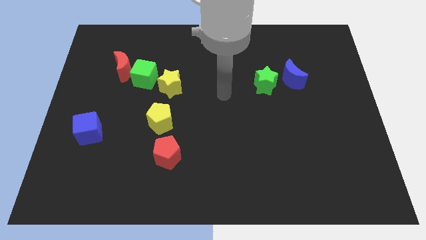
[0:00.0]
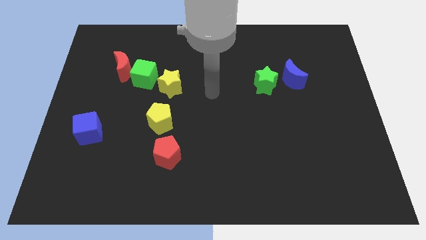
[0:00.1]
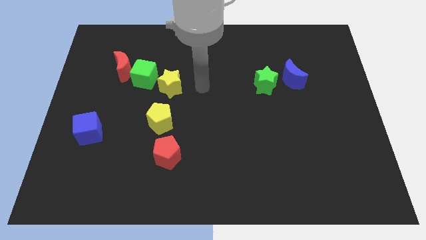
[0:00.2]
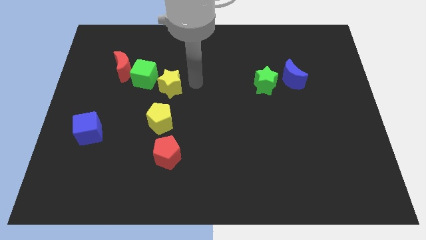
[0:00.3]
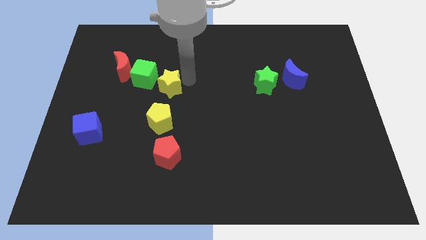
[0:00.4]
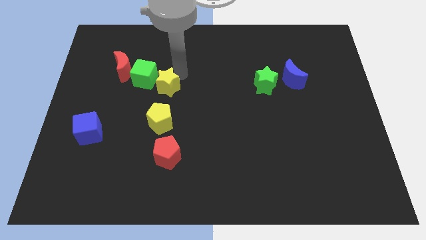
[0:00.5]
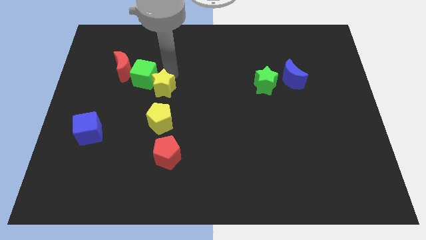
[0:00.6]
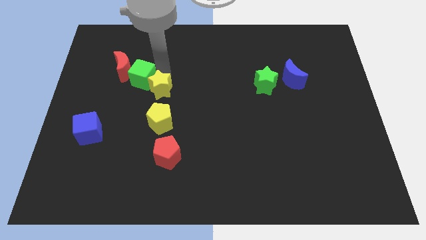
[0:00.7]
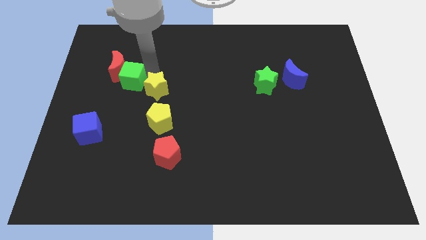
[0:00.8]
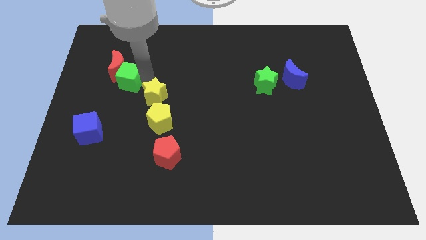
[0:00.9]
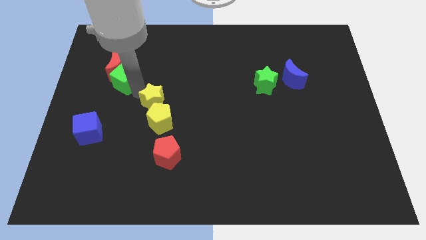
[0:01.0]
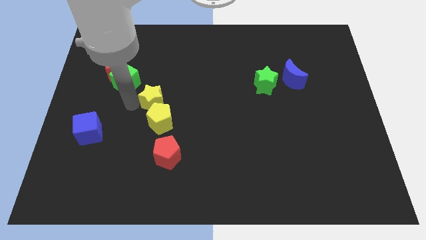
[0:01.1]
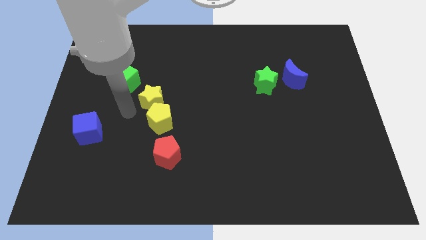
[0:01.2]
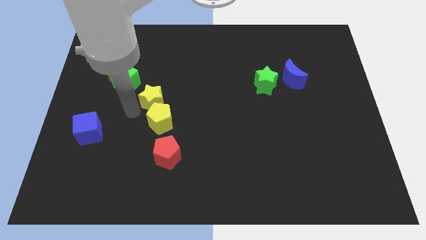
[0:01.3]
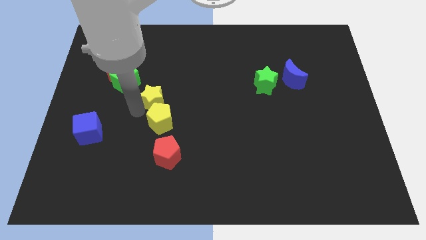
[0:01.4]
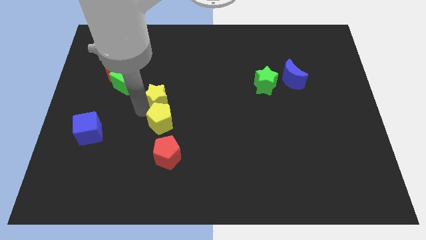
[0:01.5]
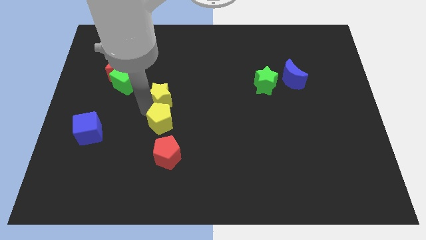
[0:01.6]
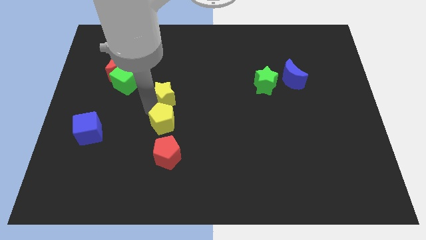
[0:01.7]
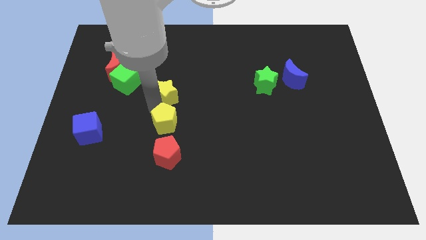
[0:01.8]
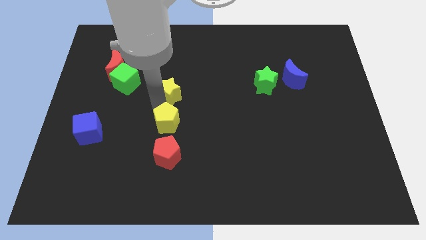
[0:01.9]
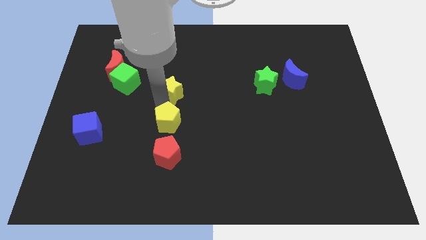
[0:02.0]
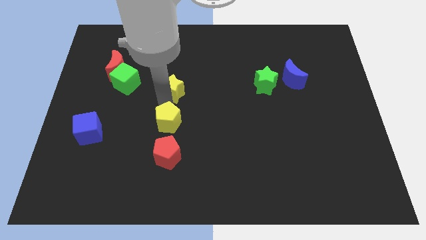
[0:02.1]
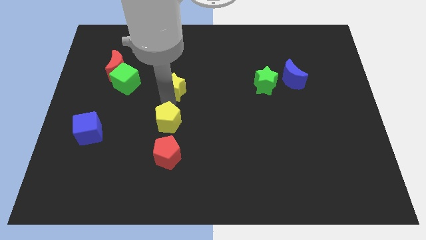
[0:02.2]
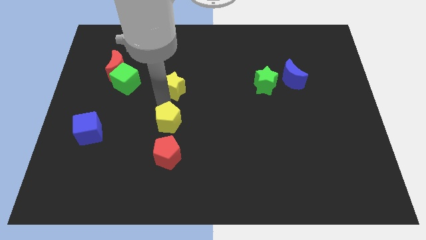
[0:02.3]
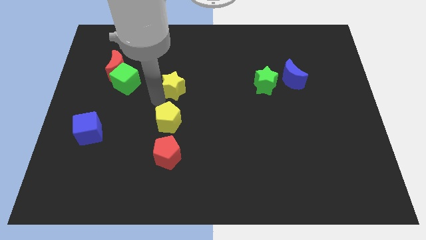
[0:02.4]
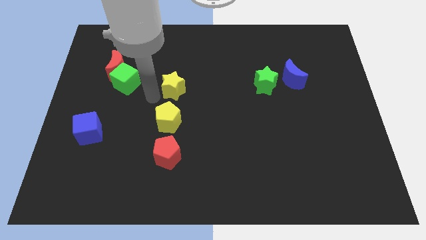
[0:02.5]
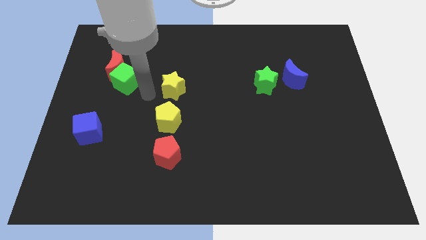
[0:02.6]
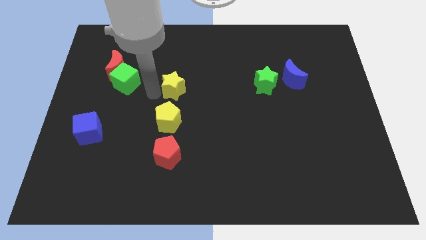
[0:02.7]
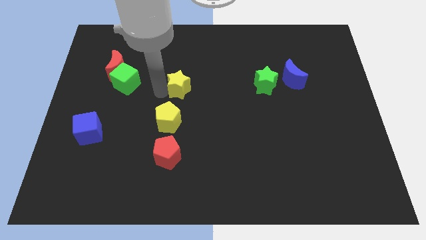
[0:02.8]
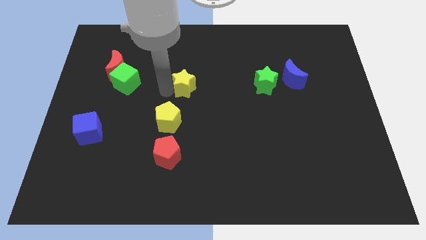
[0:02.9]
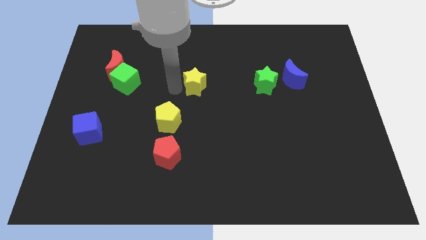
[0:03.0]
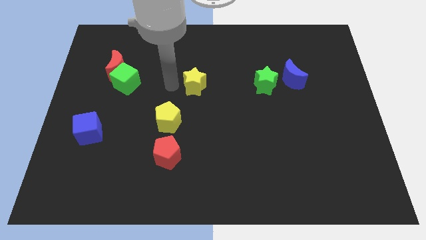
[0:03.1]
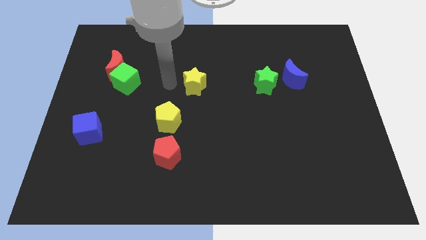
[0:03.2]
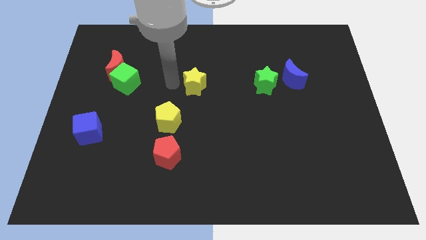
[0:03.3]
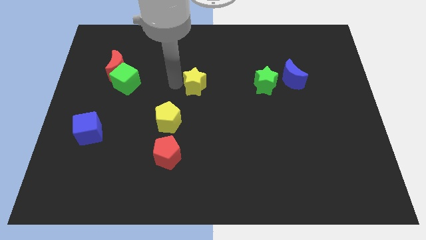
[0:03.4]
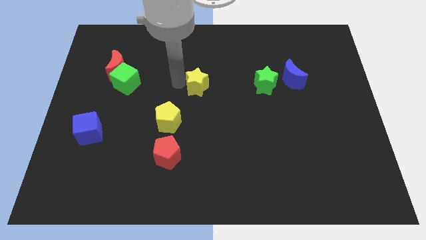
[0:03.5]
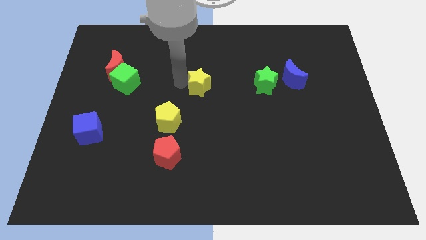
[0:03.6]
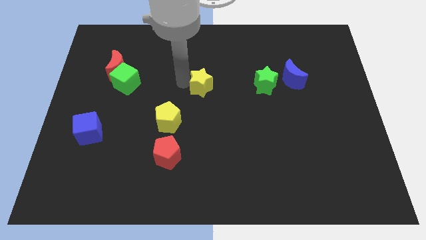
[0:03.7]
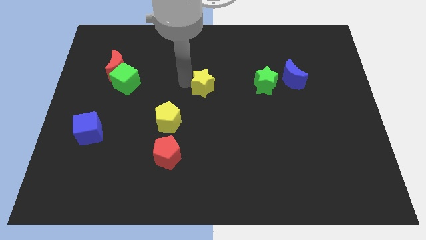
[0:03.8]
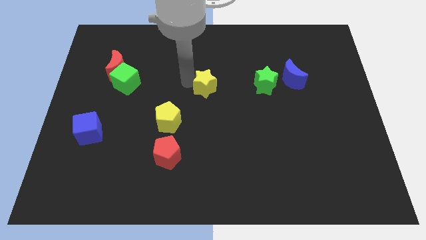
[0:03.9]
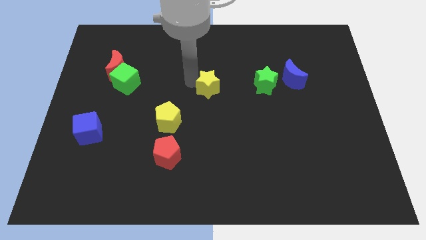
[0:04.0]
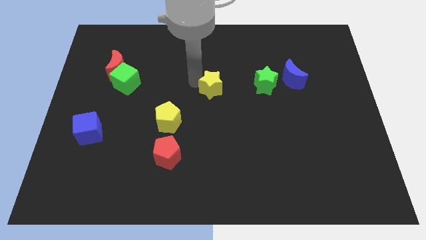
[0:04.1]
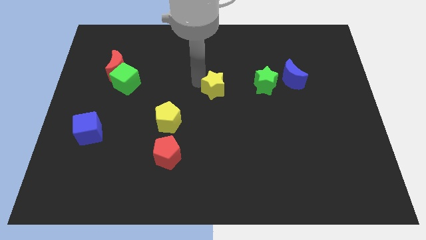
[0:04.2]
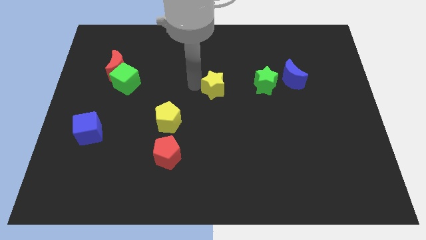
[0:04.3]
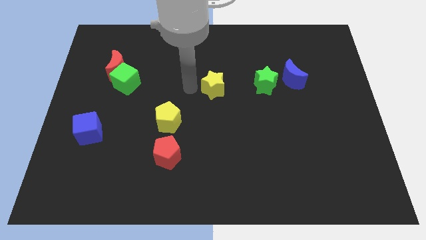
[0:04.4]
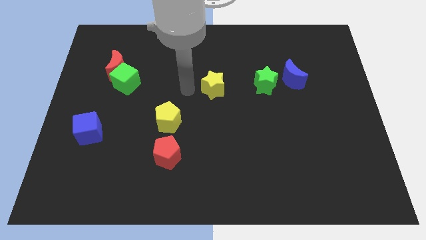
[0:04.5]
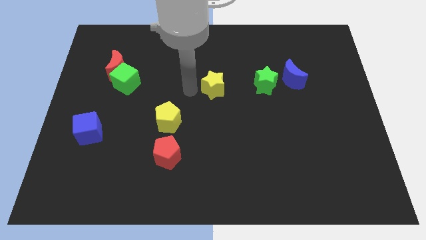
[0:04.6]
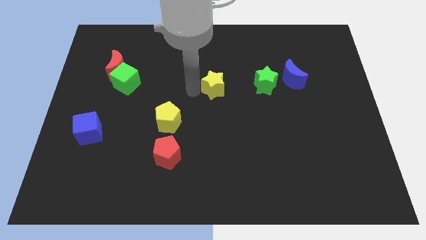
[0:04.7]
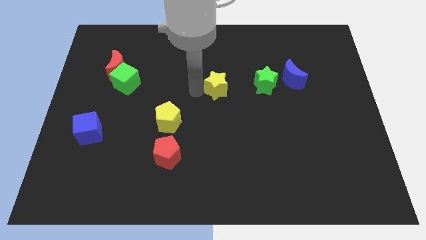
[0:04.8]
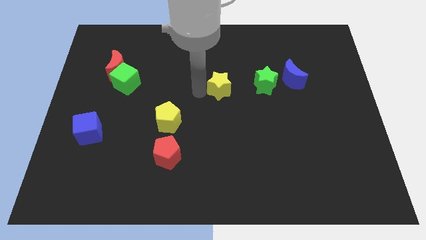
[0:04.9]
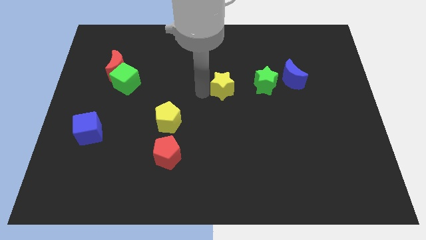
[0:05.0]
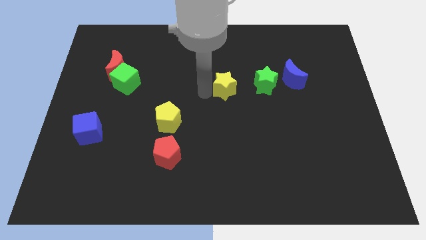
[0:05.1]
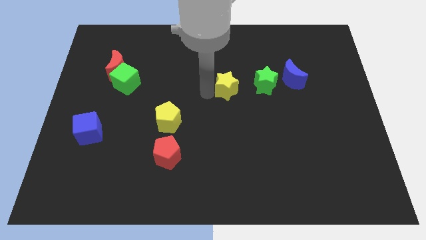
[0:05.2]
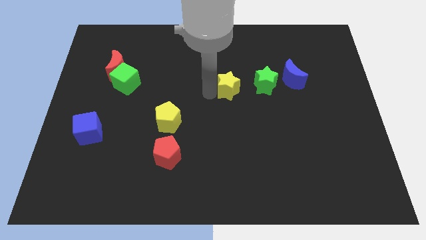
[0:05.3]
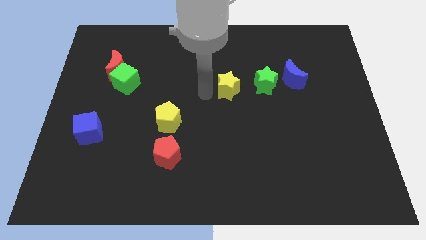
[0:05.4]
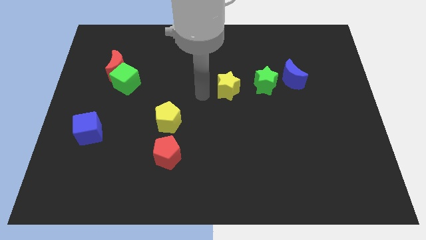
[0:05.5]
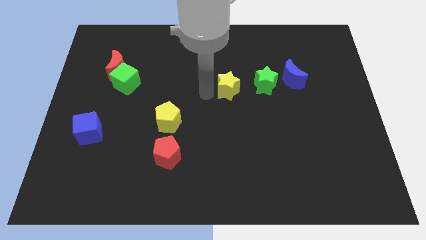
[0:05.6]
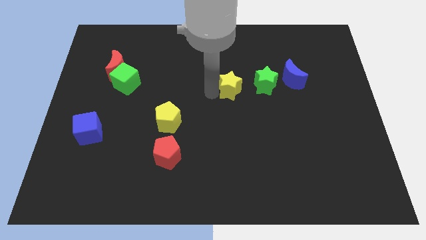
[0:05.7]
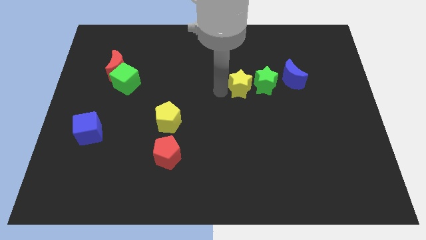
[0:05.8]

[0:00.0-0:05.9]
put the yellow star close to the green star

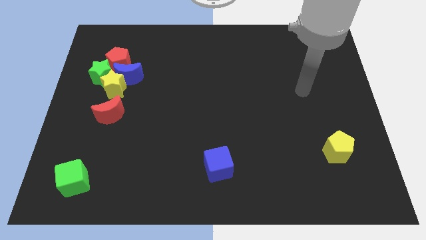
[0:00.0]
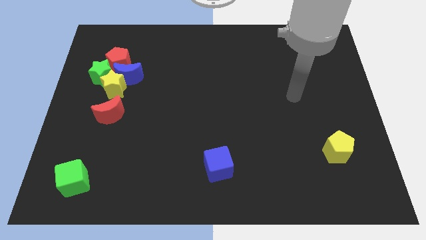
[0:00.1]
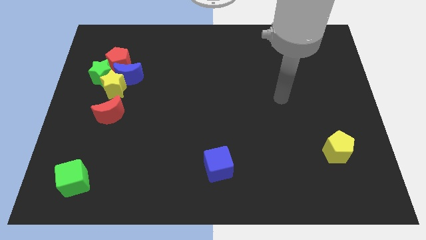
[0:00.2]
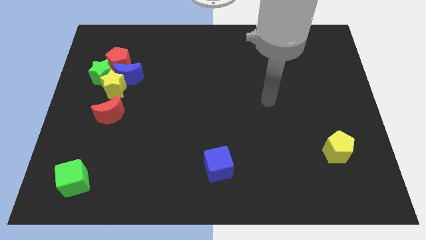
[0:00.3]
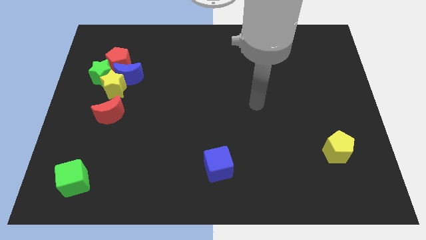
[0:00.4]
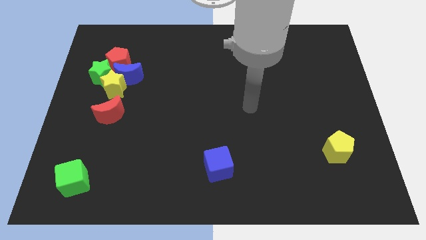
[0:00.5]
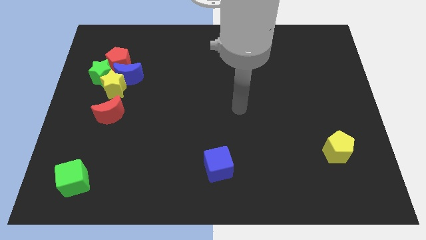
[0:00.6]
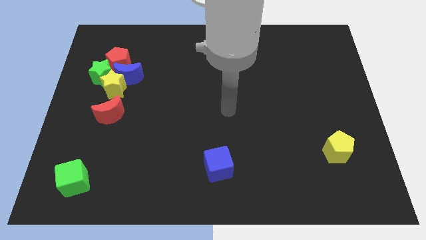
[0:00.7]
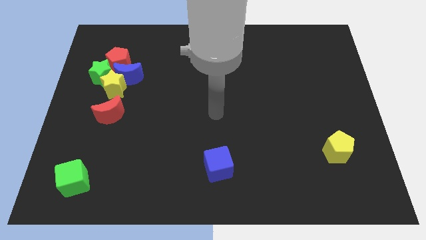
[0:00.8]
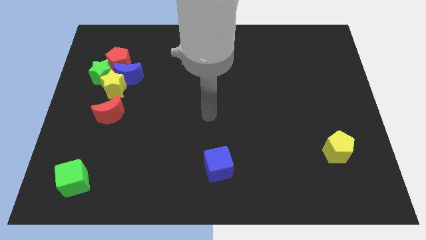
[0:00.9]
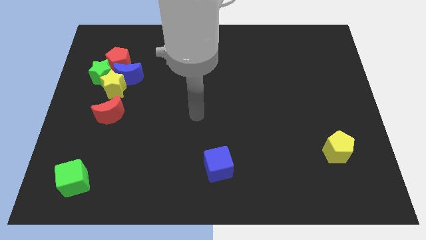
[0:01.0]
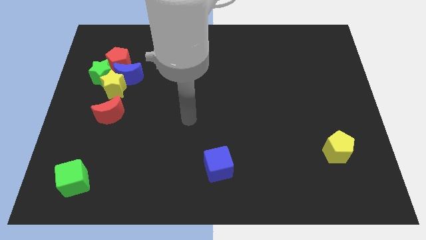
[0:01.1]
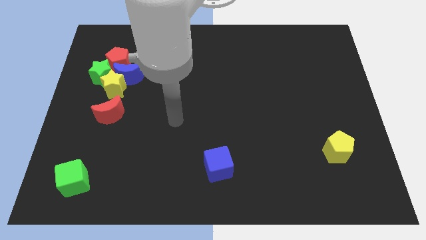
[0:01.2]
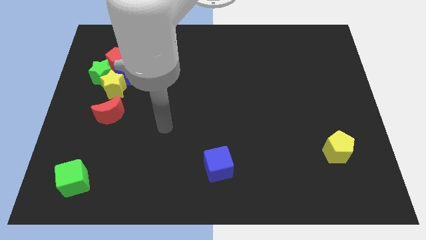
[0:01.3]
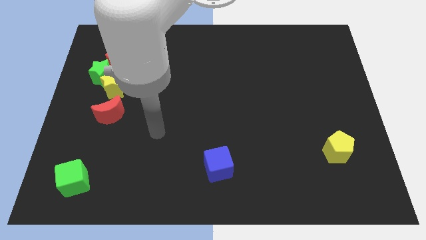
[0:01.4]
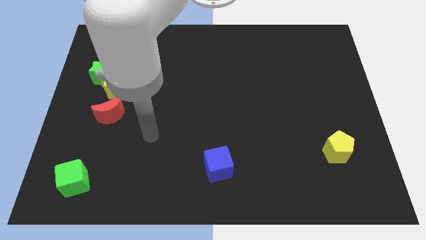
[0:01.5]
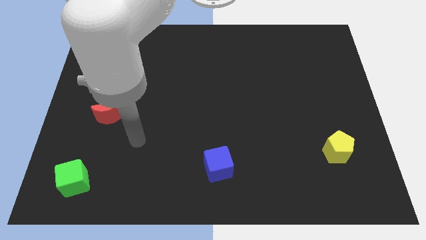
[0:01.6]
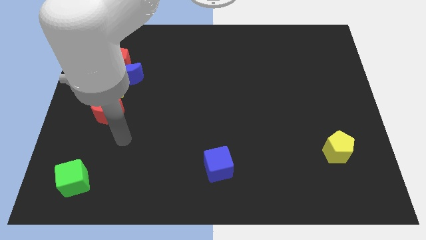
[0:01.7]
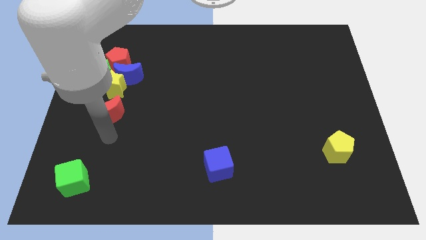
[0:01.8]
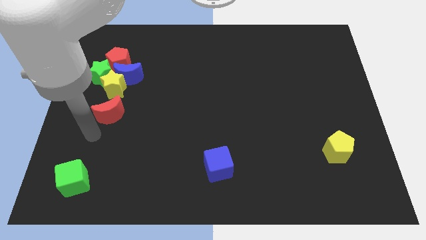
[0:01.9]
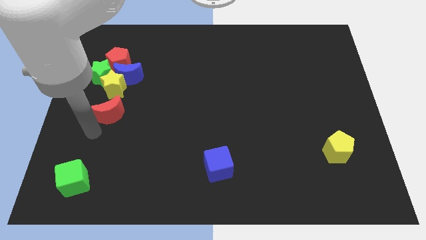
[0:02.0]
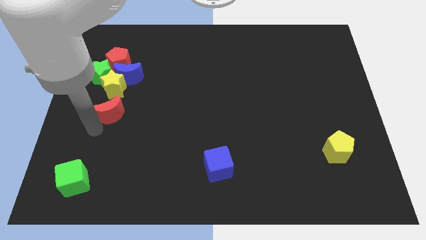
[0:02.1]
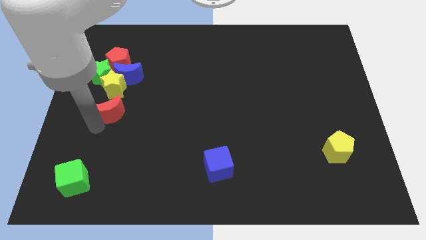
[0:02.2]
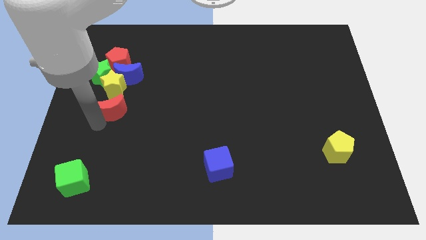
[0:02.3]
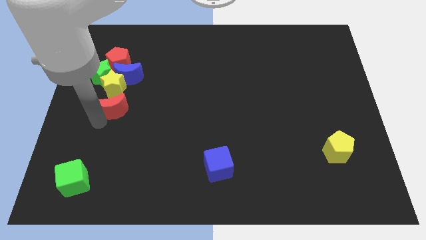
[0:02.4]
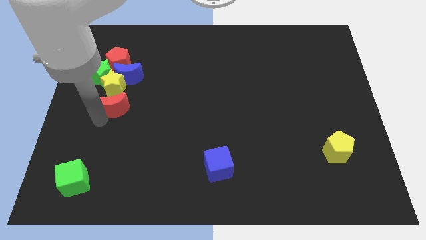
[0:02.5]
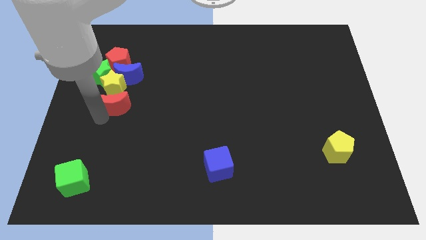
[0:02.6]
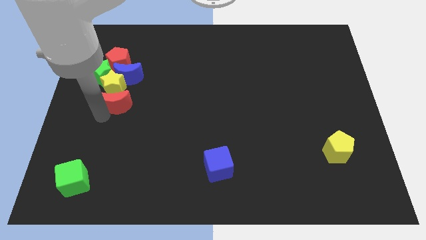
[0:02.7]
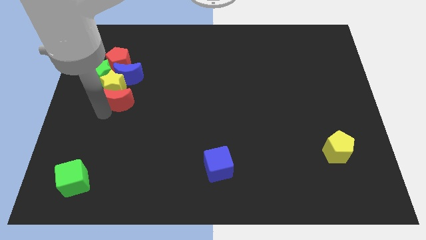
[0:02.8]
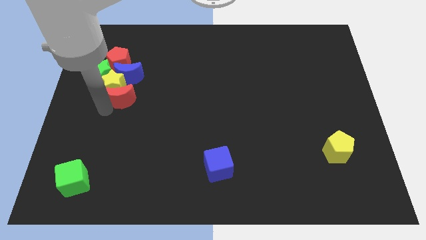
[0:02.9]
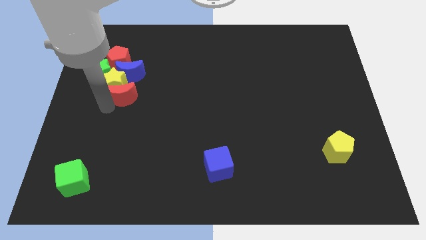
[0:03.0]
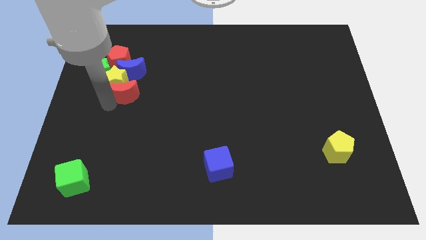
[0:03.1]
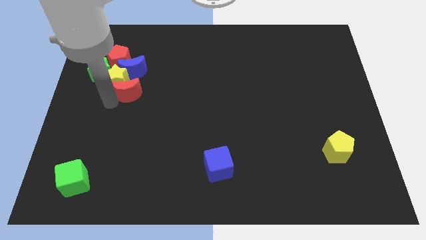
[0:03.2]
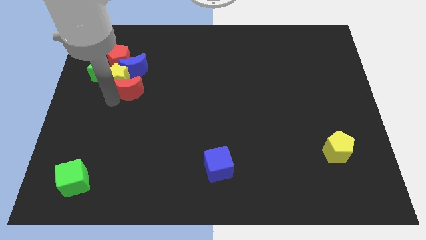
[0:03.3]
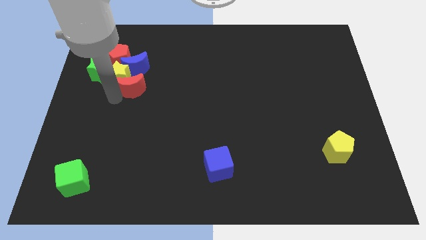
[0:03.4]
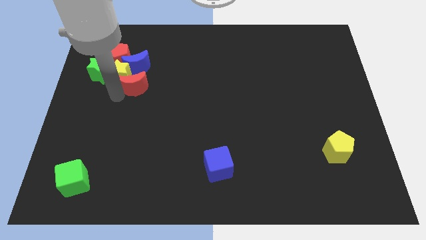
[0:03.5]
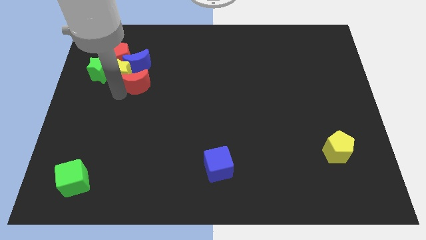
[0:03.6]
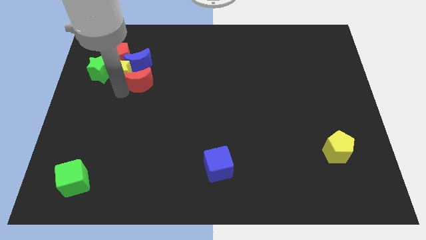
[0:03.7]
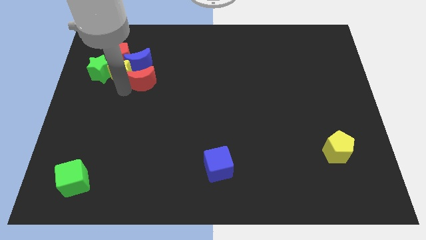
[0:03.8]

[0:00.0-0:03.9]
slide the red moon close to the blue moon
